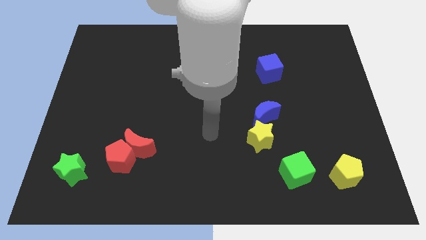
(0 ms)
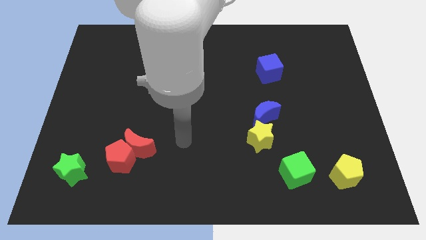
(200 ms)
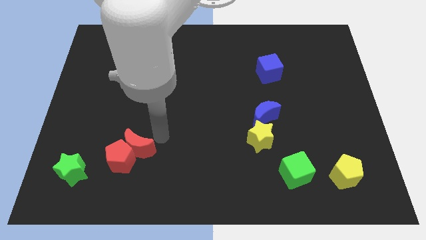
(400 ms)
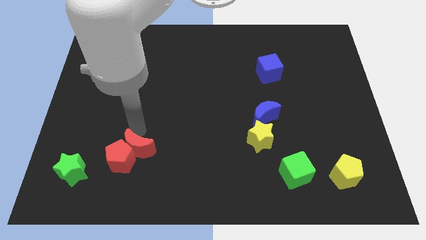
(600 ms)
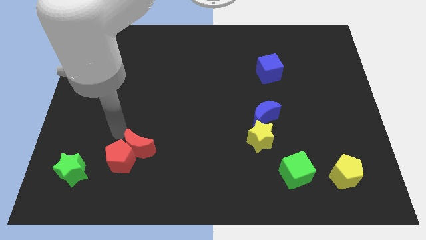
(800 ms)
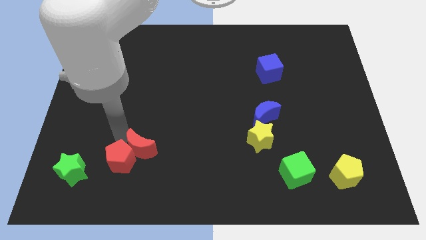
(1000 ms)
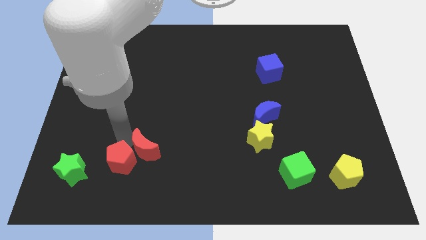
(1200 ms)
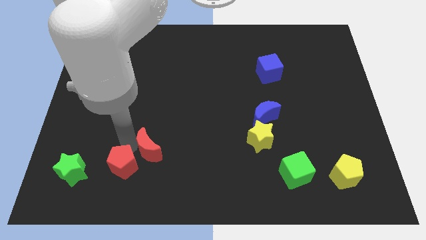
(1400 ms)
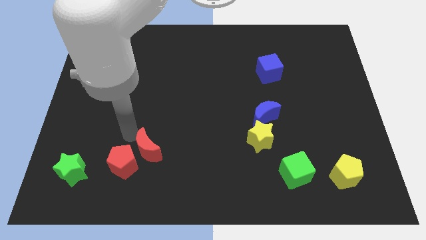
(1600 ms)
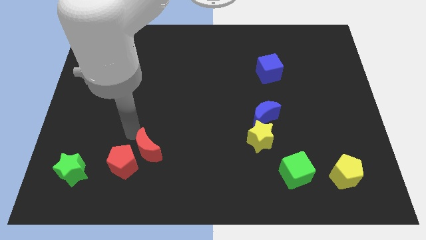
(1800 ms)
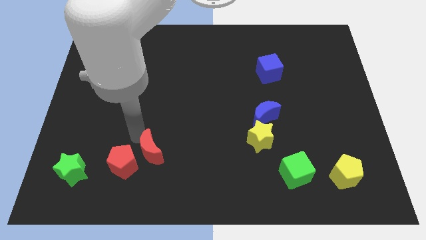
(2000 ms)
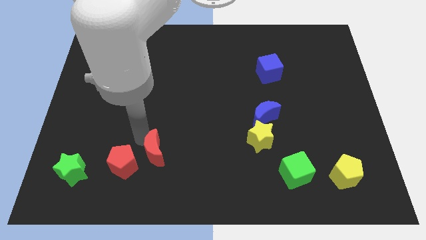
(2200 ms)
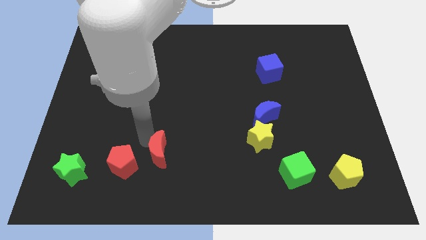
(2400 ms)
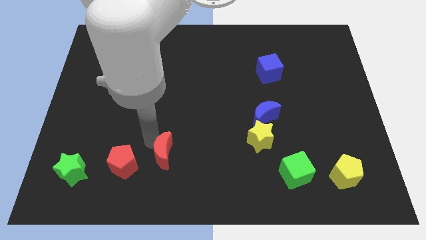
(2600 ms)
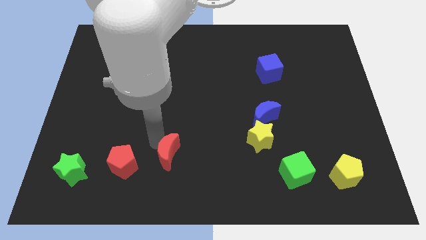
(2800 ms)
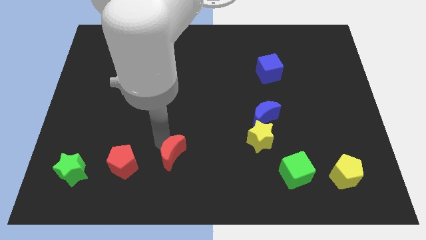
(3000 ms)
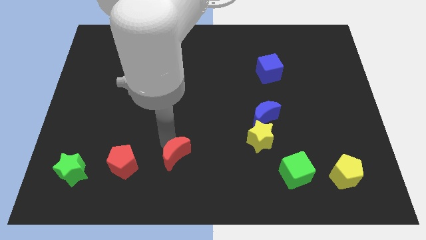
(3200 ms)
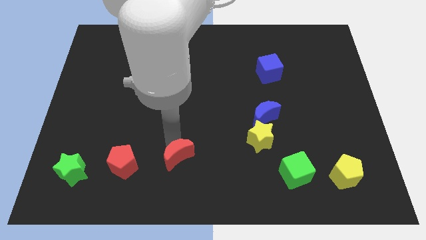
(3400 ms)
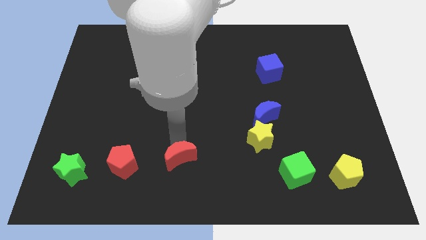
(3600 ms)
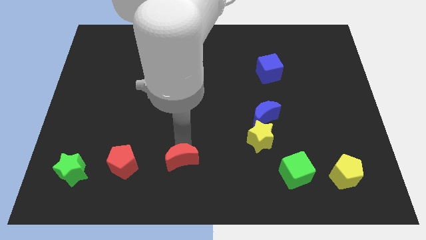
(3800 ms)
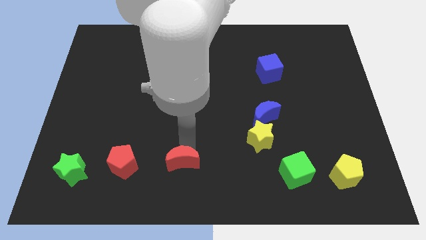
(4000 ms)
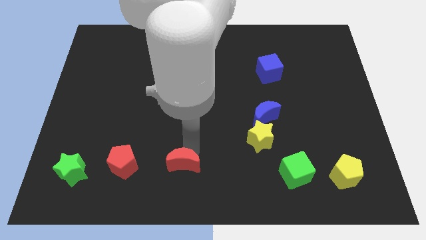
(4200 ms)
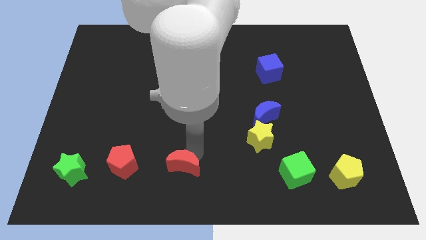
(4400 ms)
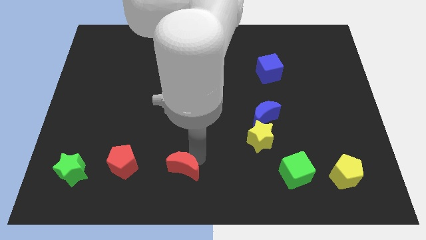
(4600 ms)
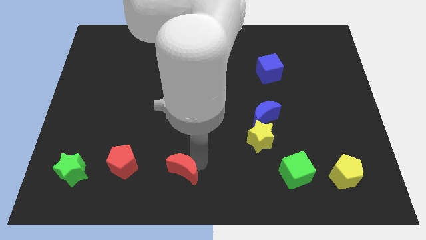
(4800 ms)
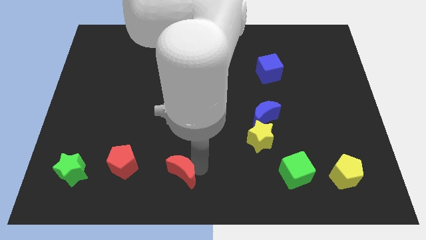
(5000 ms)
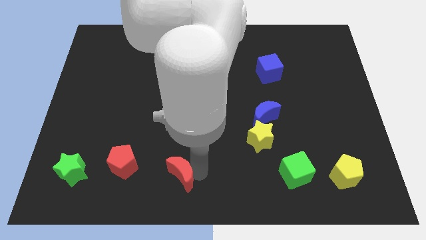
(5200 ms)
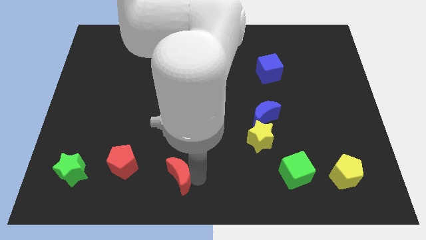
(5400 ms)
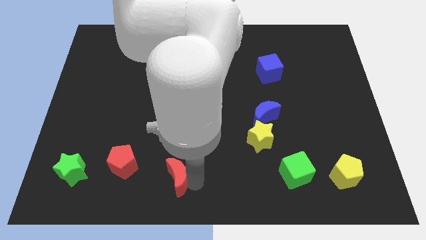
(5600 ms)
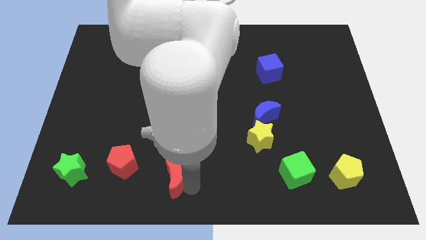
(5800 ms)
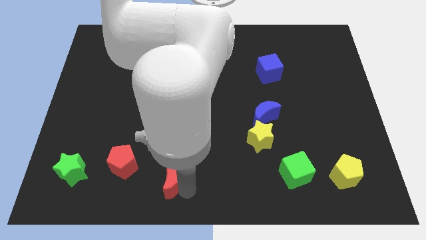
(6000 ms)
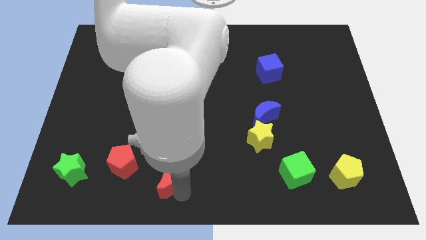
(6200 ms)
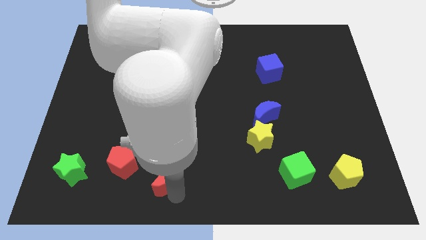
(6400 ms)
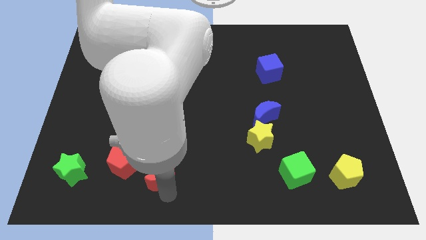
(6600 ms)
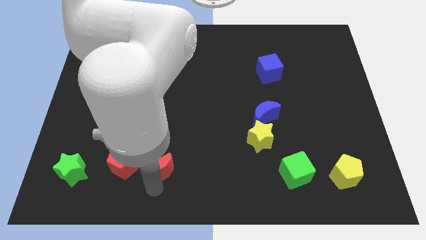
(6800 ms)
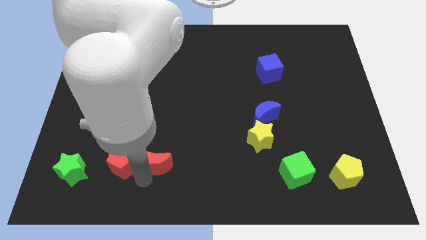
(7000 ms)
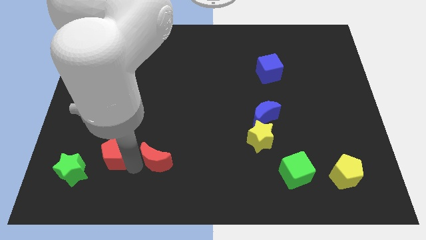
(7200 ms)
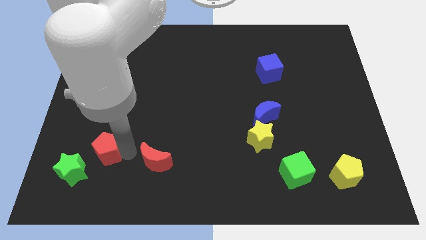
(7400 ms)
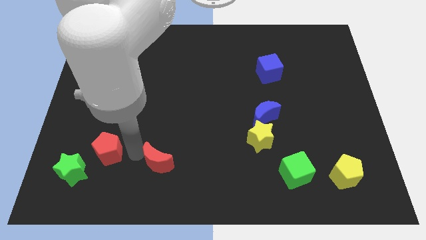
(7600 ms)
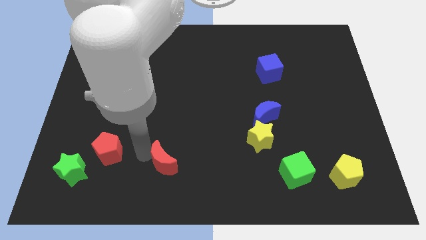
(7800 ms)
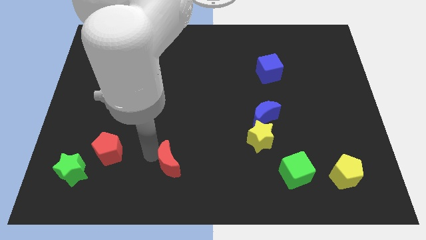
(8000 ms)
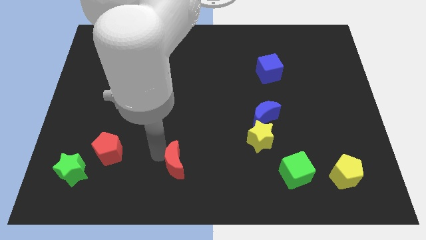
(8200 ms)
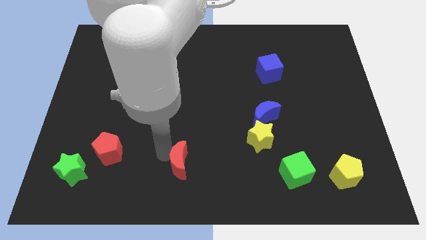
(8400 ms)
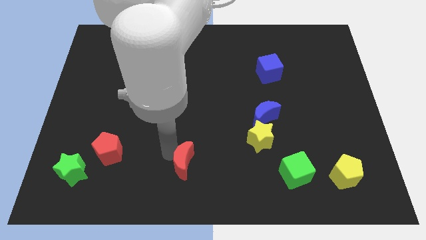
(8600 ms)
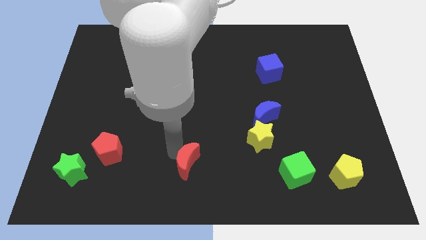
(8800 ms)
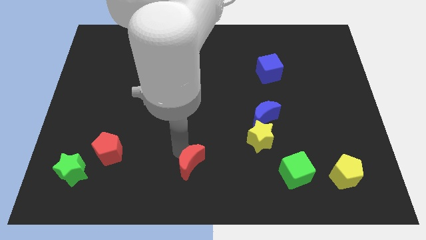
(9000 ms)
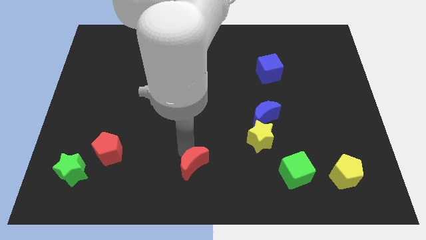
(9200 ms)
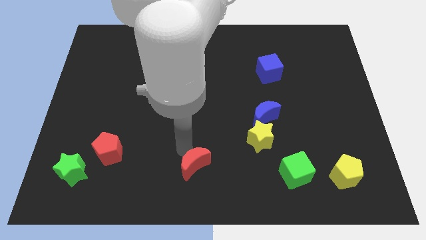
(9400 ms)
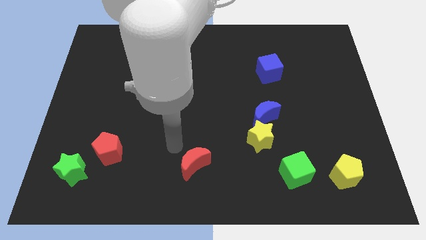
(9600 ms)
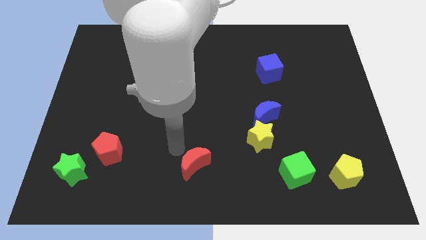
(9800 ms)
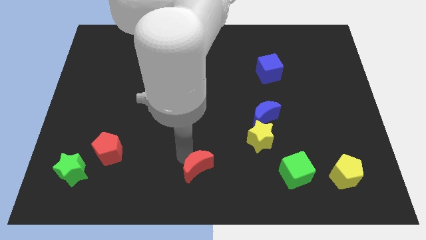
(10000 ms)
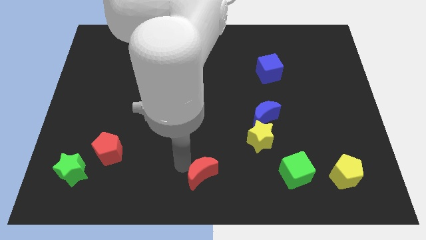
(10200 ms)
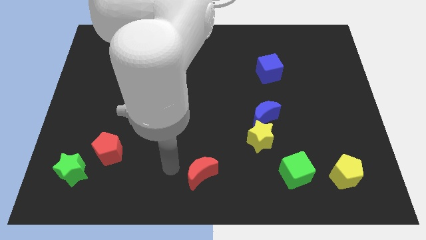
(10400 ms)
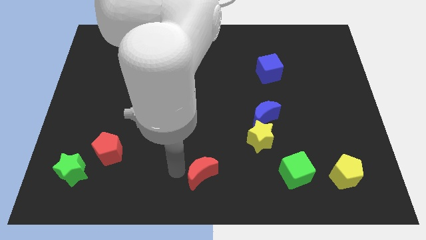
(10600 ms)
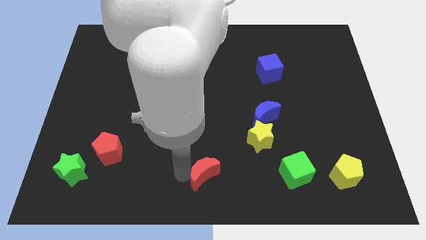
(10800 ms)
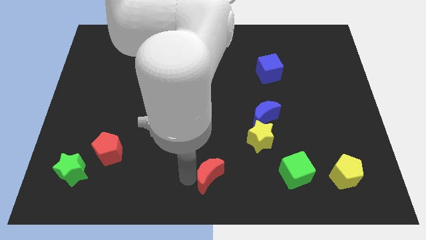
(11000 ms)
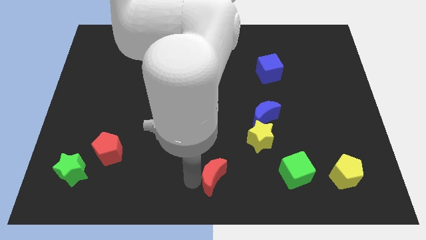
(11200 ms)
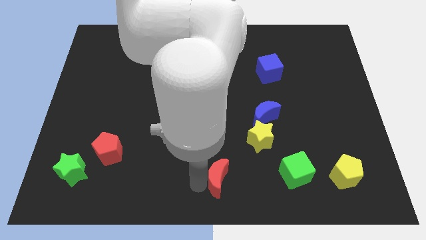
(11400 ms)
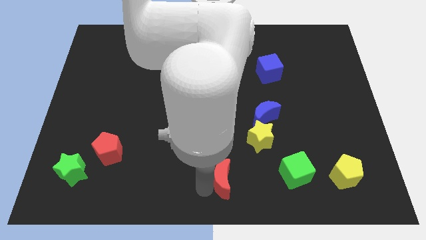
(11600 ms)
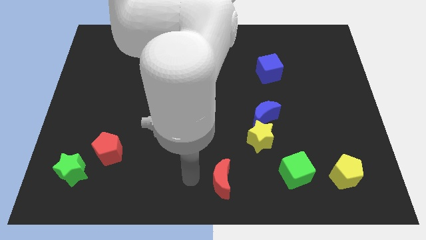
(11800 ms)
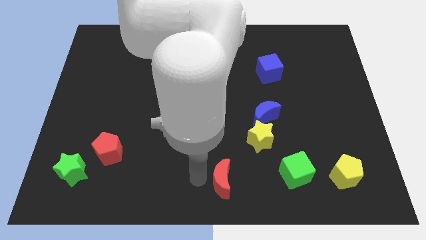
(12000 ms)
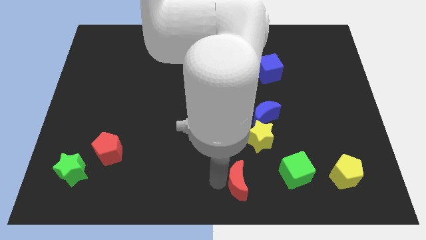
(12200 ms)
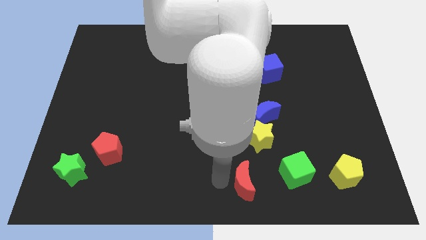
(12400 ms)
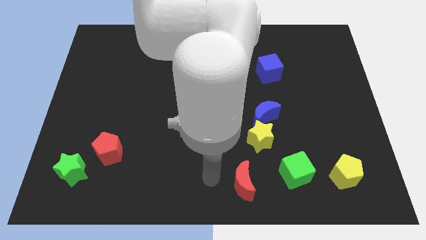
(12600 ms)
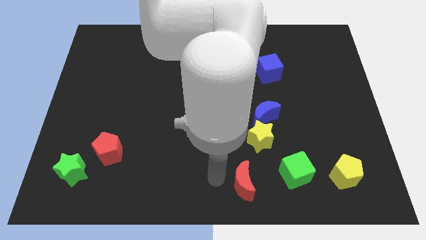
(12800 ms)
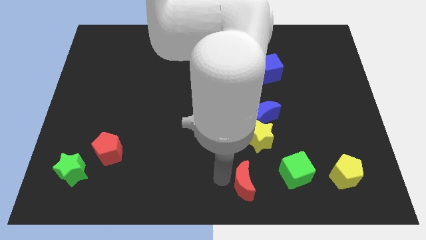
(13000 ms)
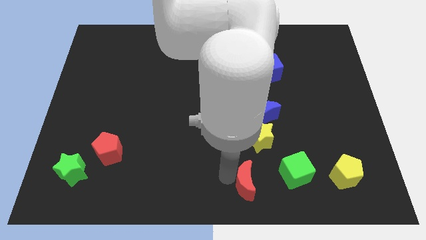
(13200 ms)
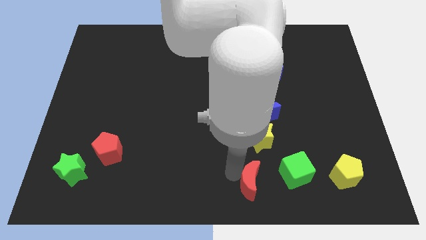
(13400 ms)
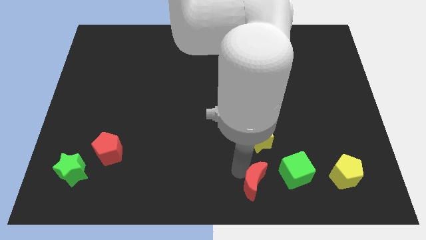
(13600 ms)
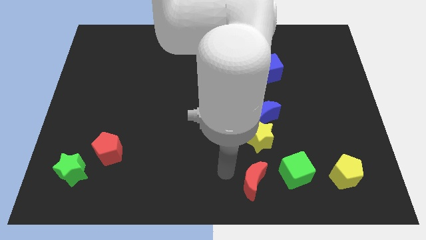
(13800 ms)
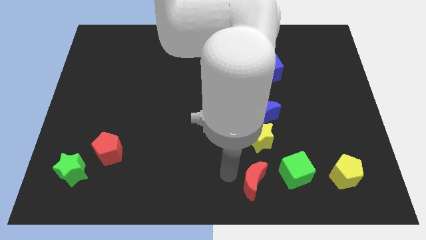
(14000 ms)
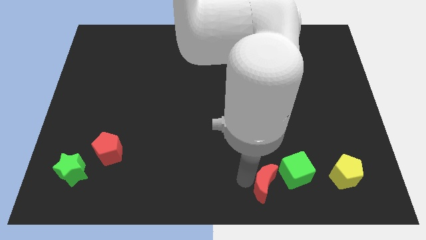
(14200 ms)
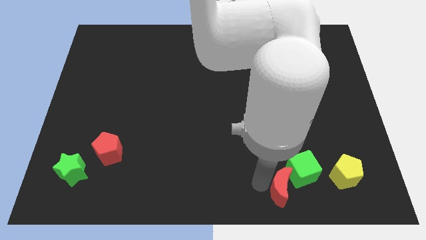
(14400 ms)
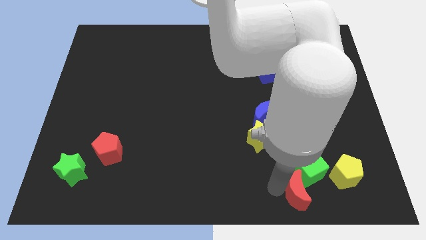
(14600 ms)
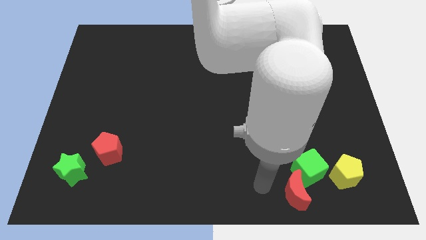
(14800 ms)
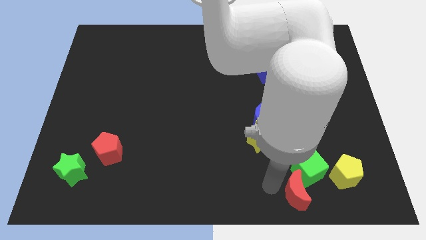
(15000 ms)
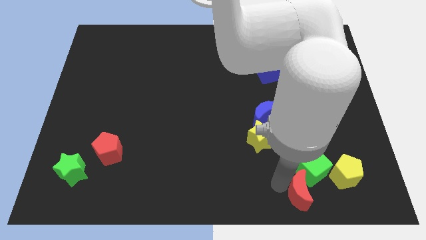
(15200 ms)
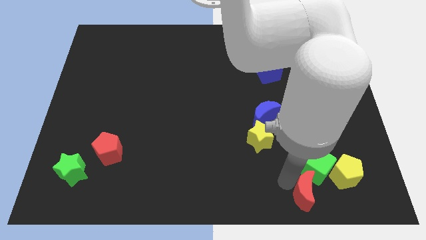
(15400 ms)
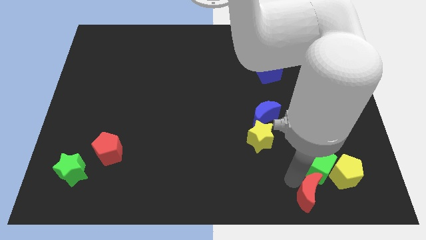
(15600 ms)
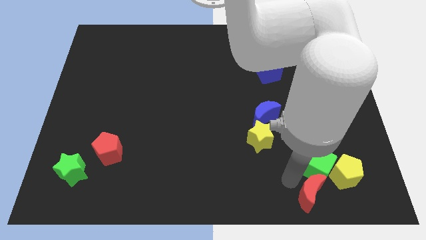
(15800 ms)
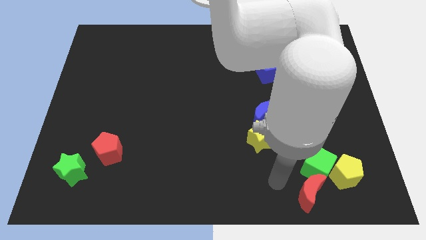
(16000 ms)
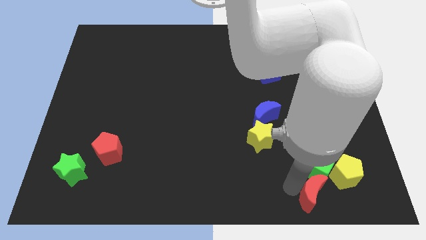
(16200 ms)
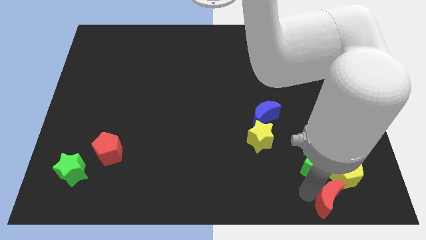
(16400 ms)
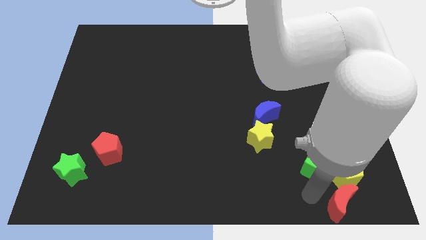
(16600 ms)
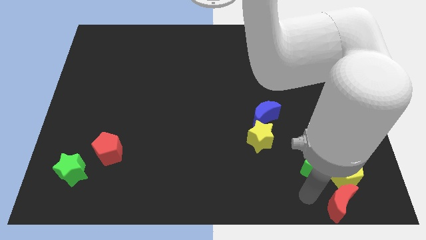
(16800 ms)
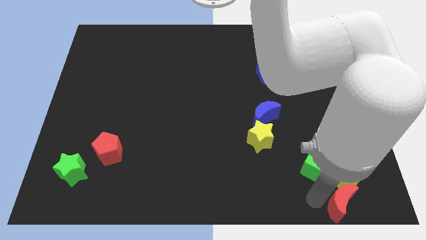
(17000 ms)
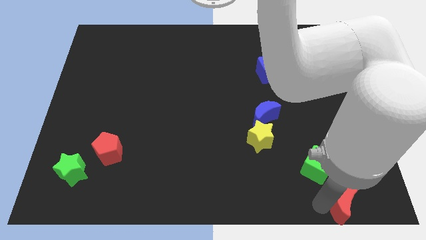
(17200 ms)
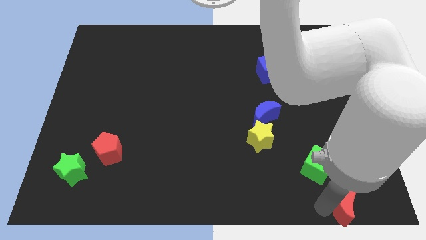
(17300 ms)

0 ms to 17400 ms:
put the red moon to the lower right corner
